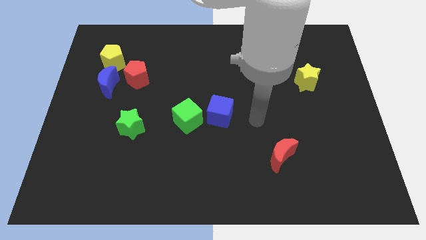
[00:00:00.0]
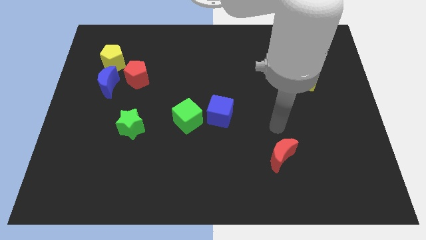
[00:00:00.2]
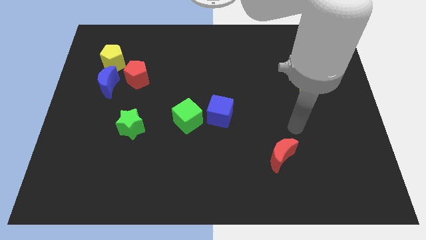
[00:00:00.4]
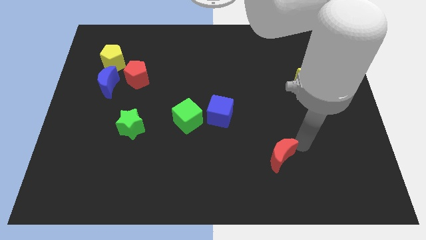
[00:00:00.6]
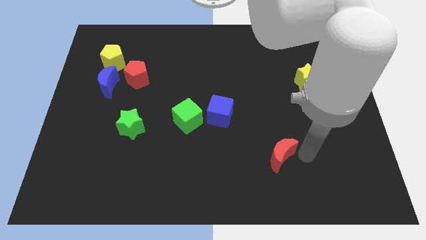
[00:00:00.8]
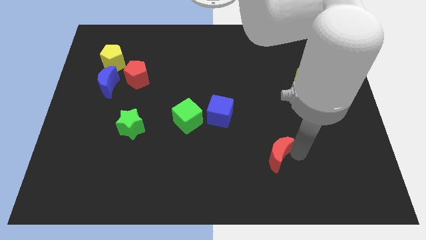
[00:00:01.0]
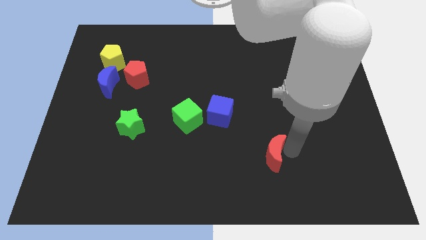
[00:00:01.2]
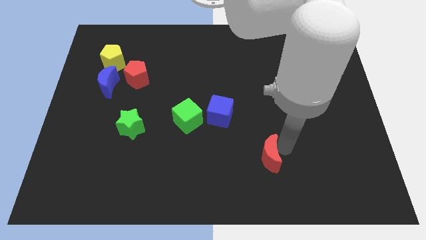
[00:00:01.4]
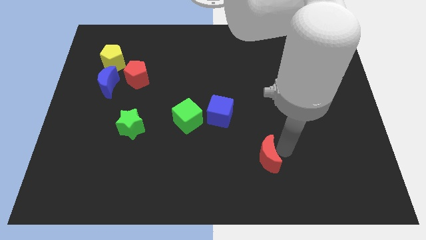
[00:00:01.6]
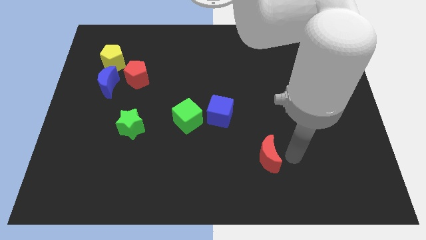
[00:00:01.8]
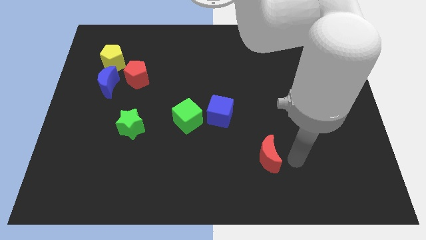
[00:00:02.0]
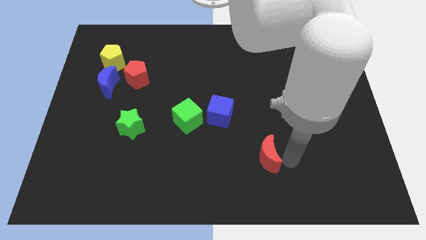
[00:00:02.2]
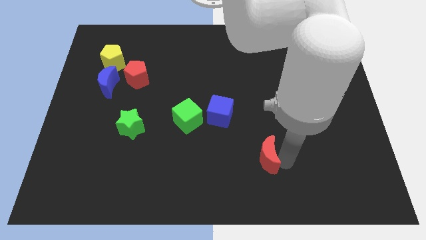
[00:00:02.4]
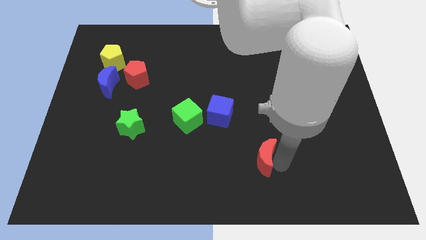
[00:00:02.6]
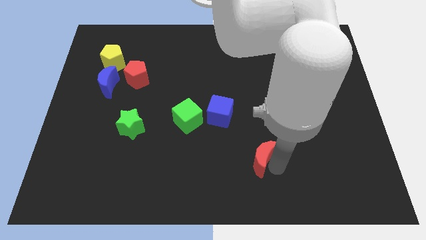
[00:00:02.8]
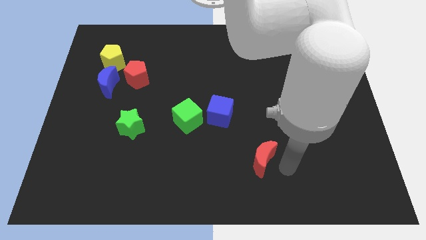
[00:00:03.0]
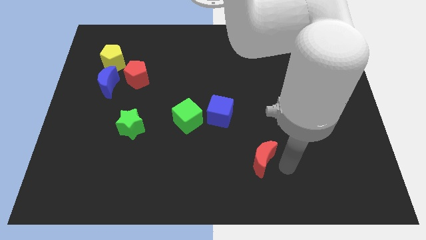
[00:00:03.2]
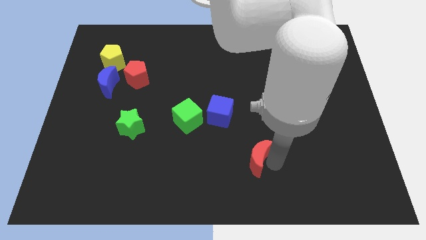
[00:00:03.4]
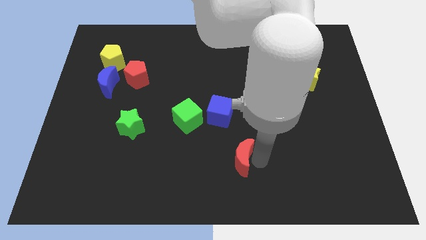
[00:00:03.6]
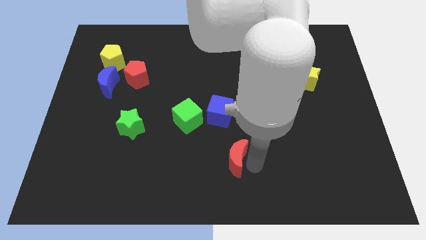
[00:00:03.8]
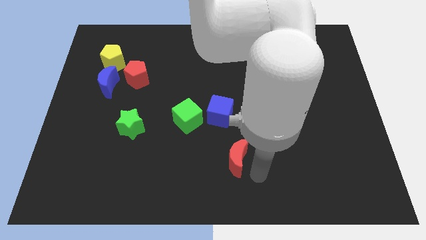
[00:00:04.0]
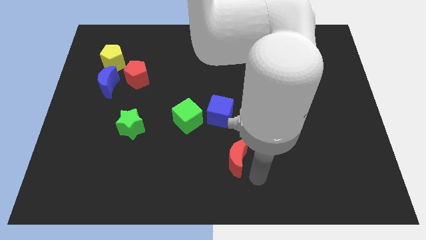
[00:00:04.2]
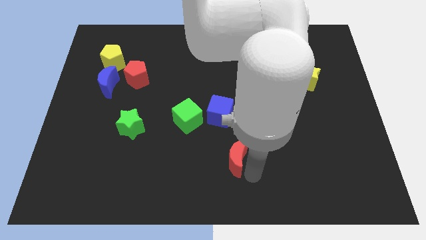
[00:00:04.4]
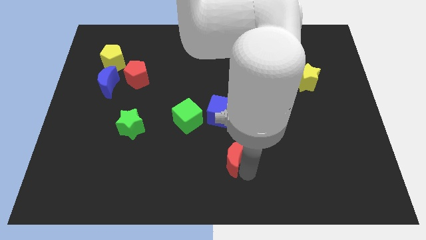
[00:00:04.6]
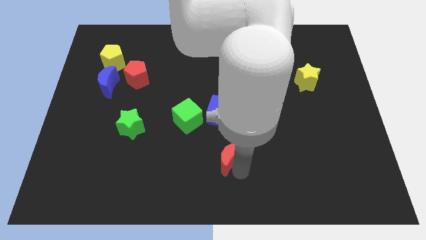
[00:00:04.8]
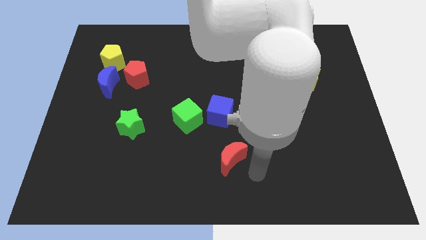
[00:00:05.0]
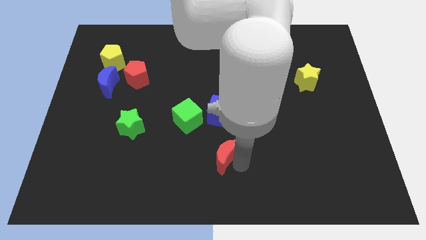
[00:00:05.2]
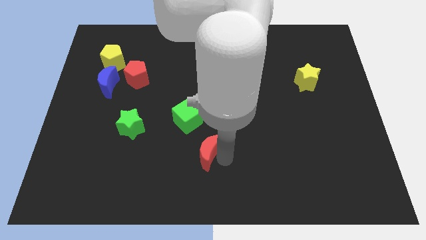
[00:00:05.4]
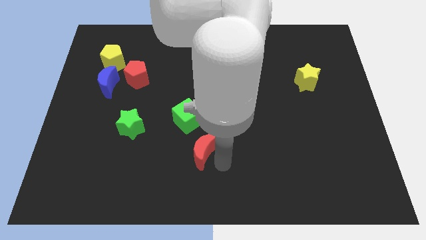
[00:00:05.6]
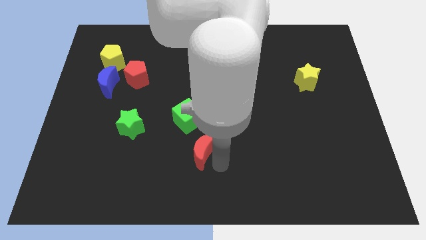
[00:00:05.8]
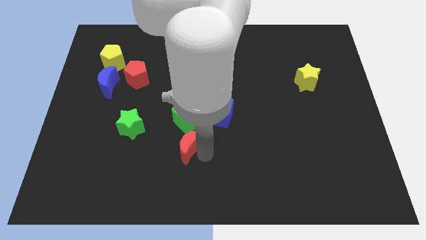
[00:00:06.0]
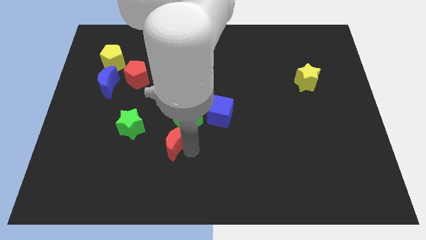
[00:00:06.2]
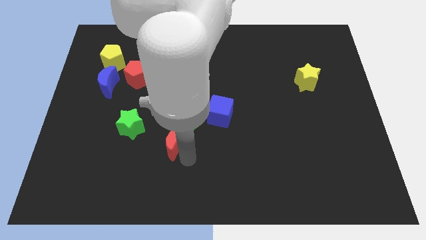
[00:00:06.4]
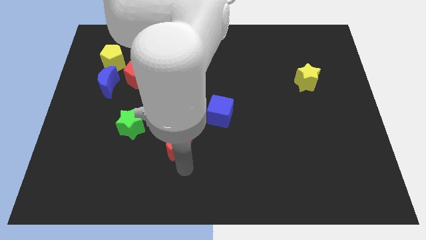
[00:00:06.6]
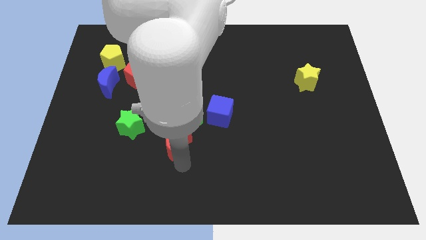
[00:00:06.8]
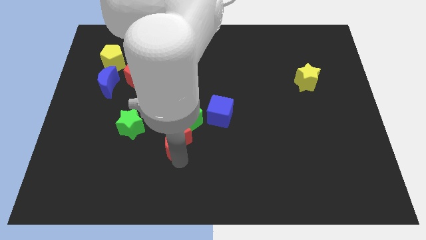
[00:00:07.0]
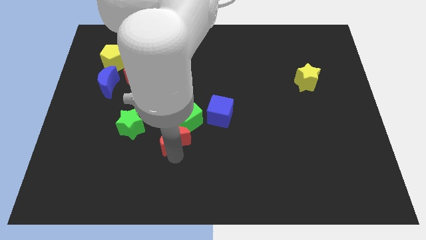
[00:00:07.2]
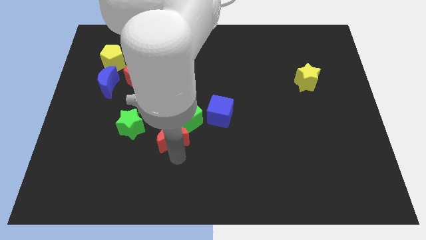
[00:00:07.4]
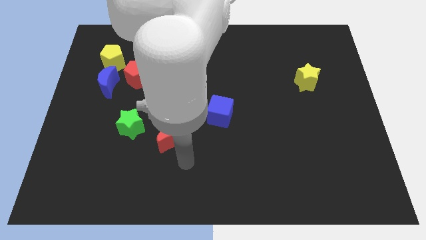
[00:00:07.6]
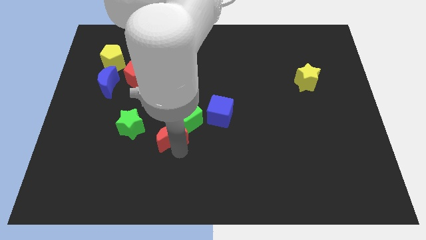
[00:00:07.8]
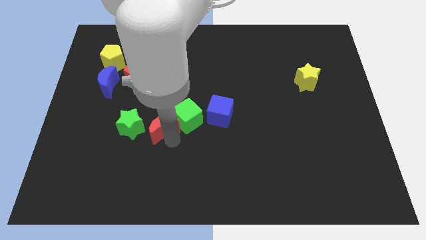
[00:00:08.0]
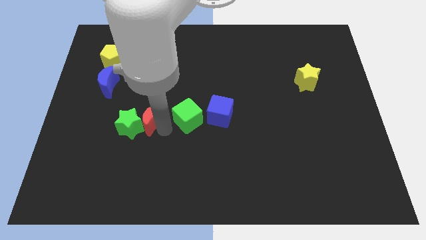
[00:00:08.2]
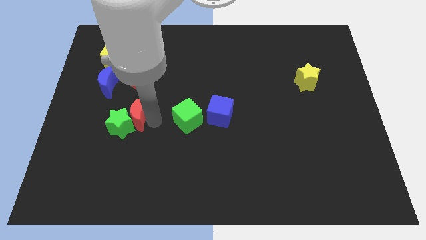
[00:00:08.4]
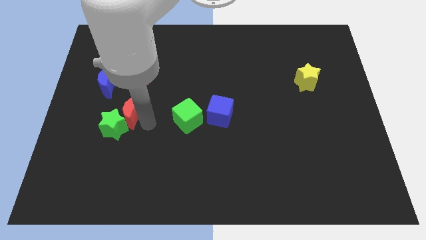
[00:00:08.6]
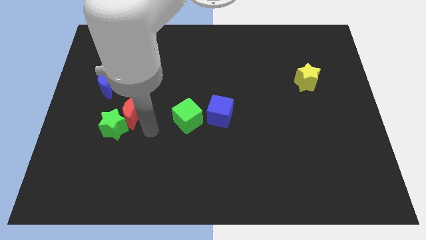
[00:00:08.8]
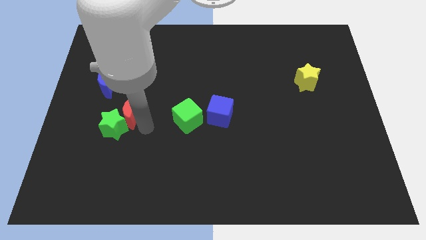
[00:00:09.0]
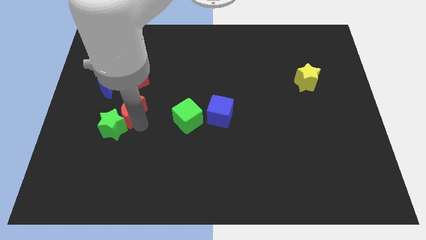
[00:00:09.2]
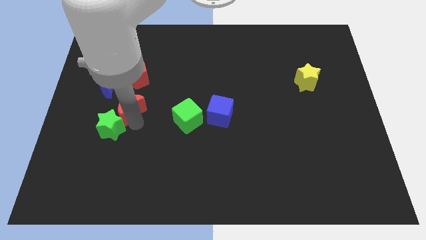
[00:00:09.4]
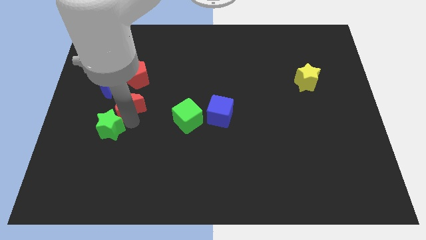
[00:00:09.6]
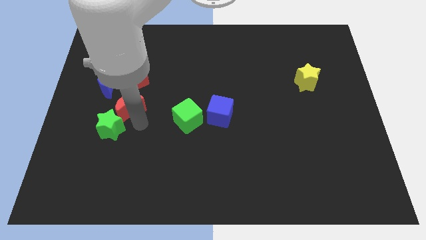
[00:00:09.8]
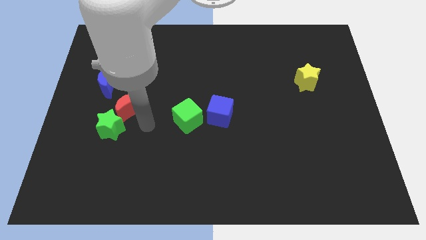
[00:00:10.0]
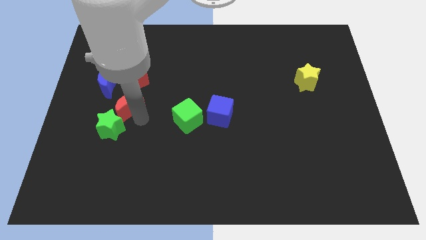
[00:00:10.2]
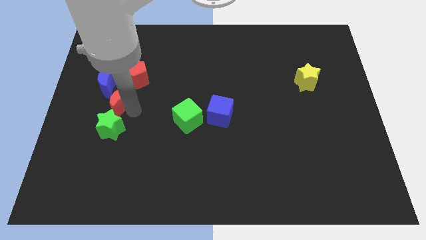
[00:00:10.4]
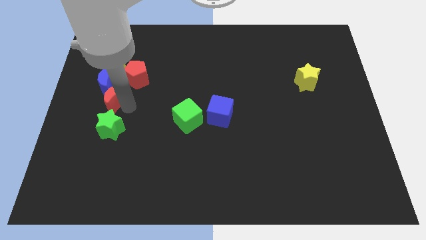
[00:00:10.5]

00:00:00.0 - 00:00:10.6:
move the red moon to the bottom side of the yellow pentagon
